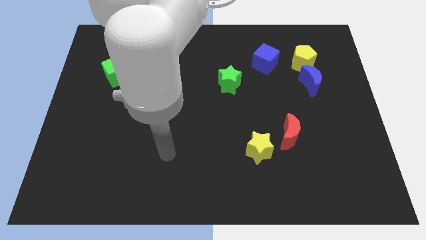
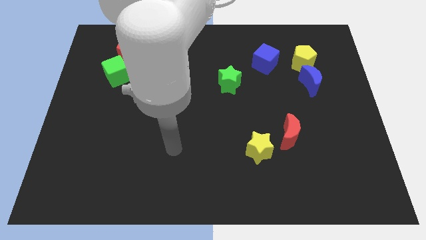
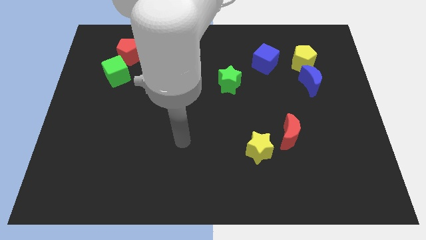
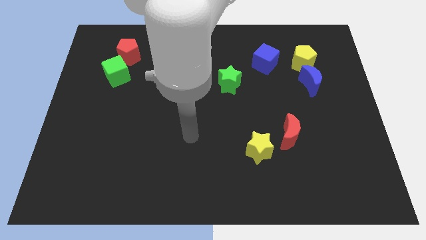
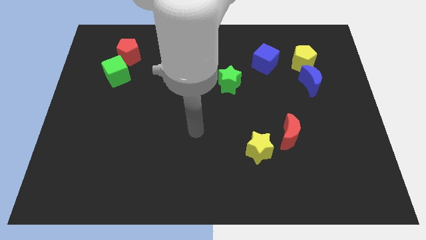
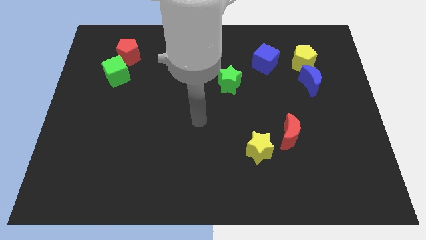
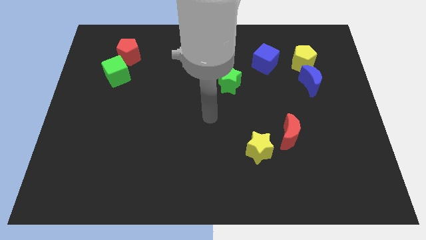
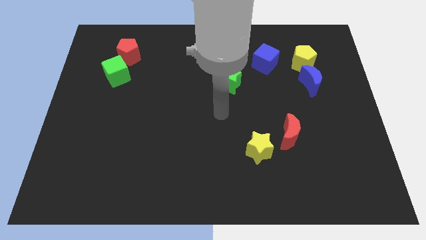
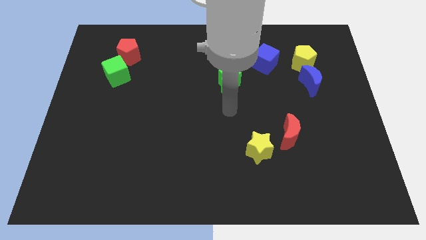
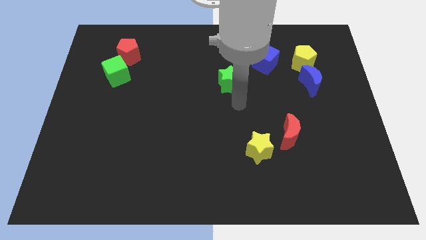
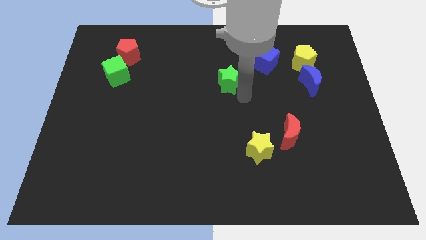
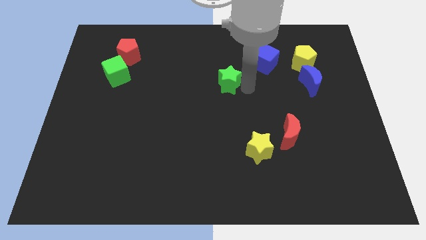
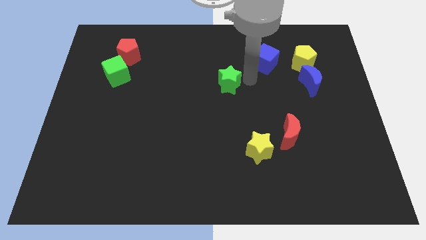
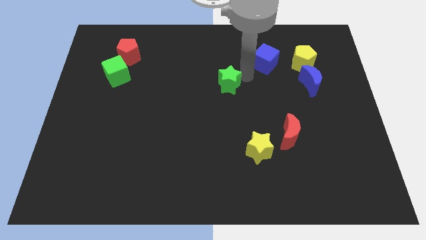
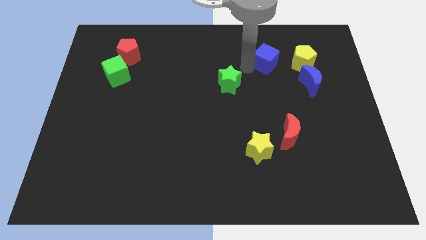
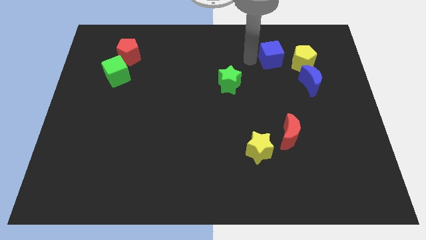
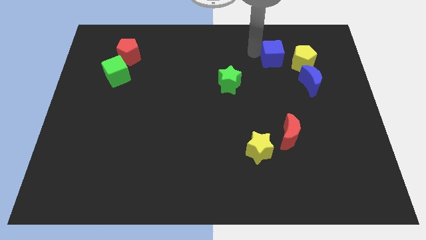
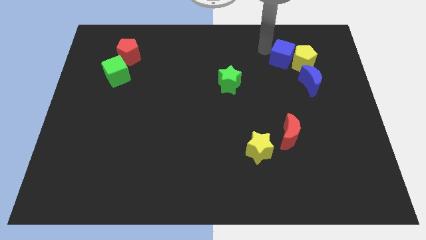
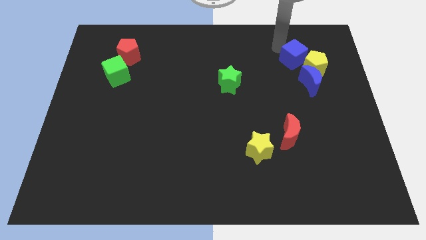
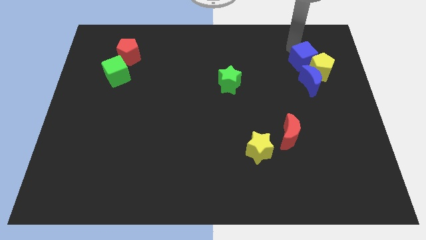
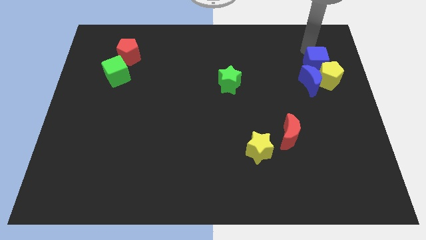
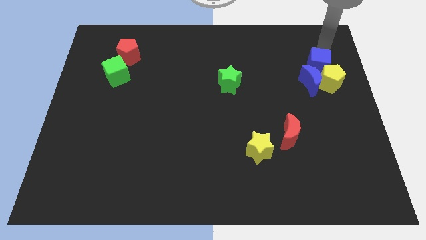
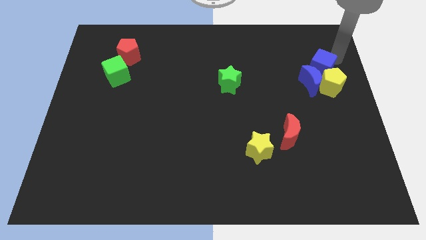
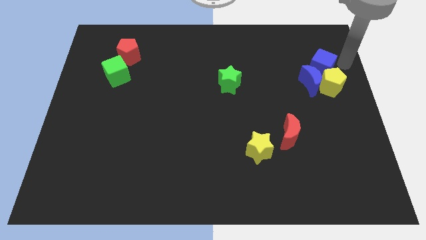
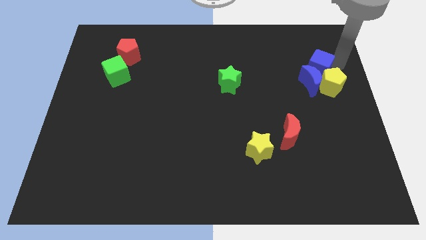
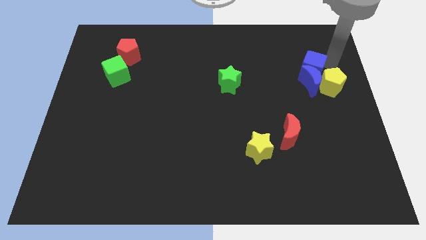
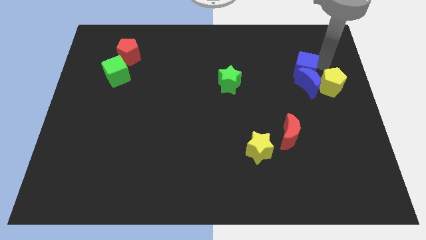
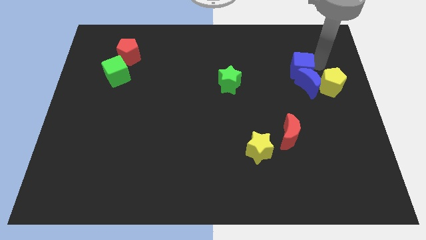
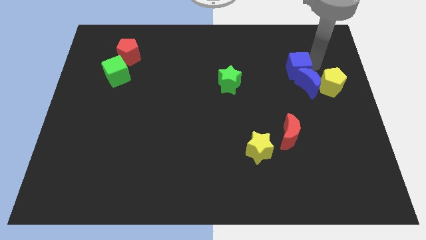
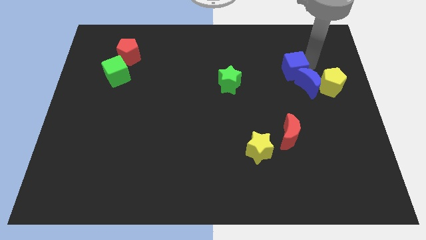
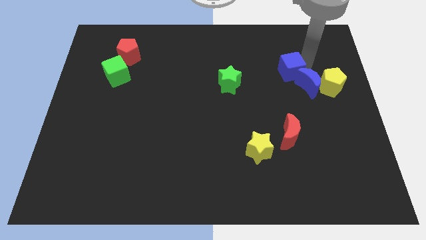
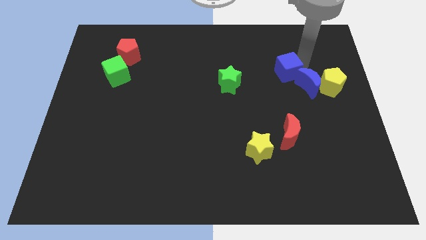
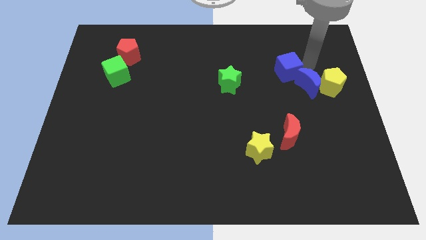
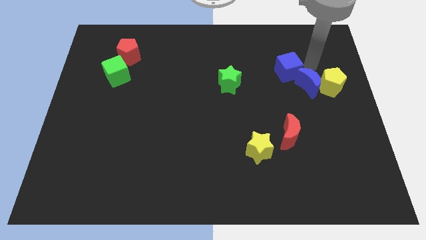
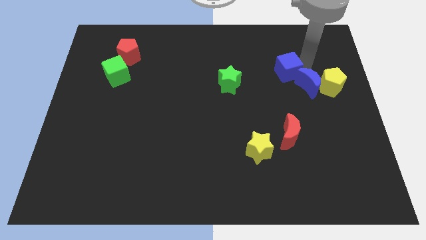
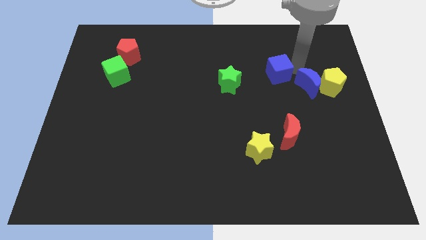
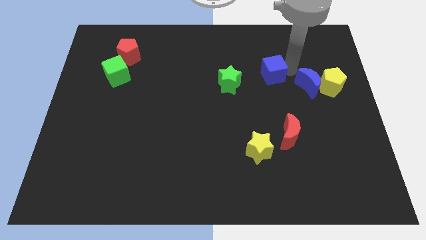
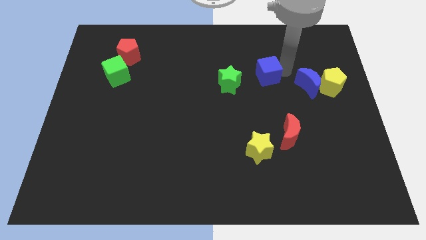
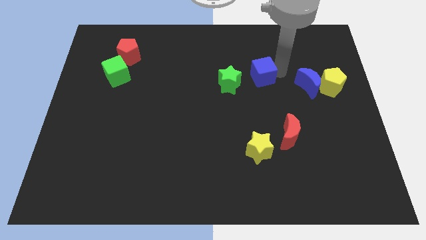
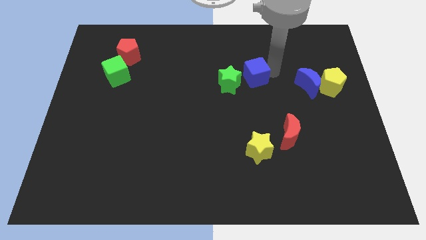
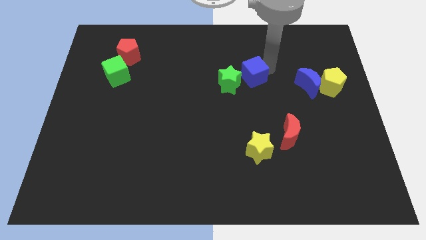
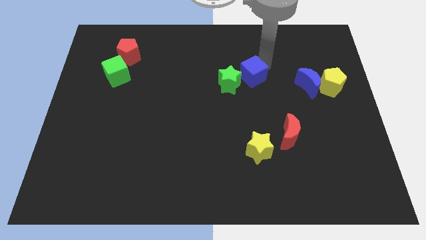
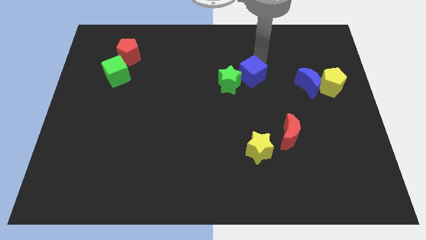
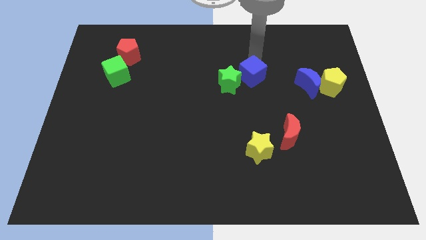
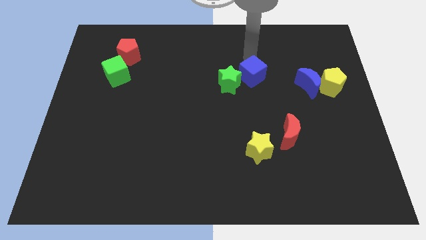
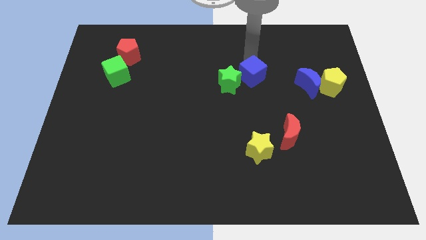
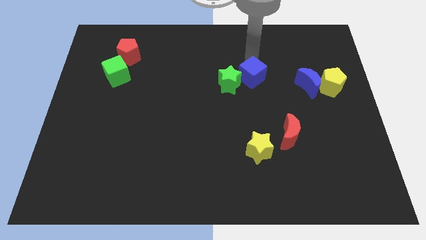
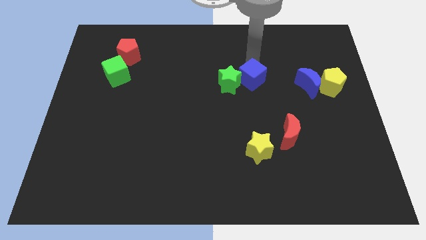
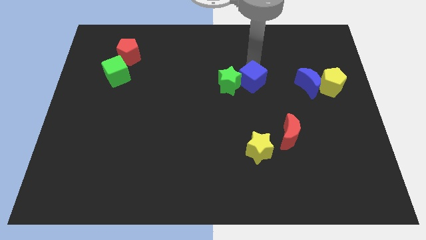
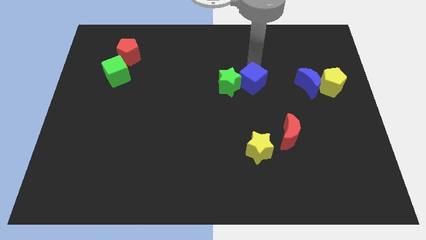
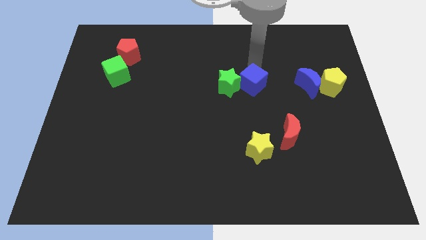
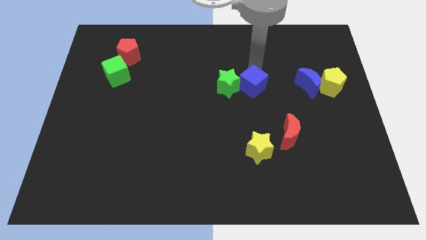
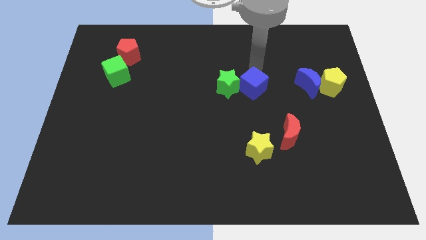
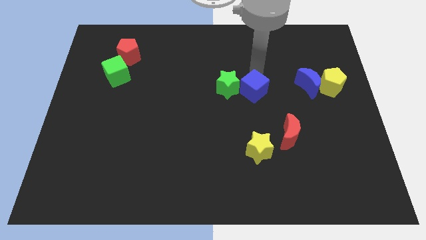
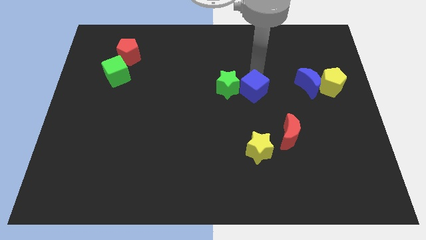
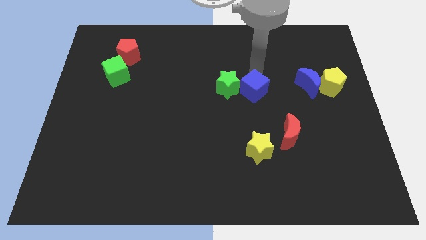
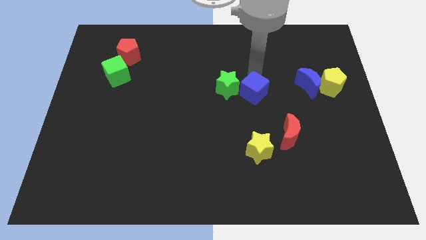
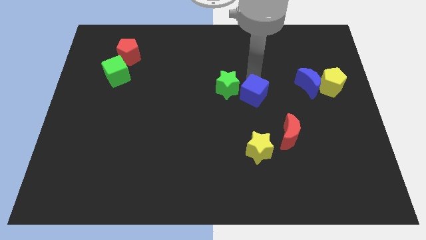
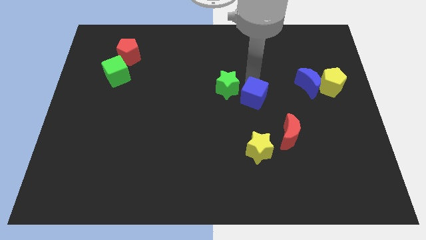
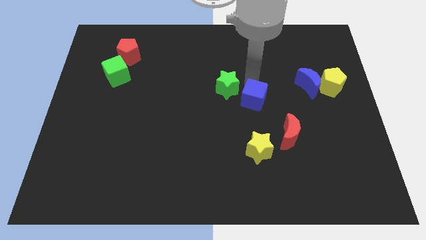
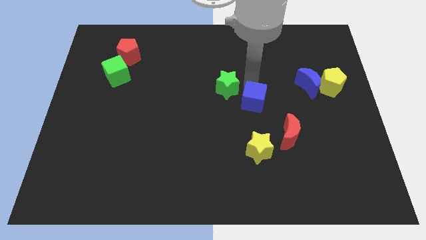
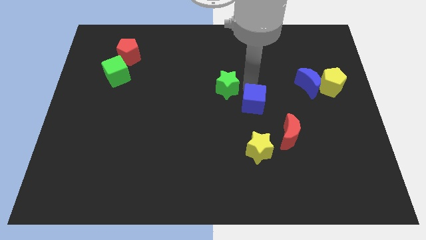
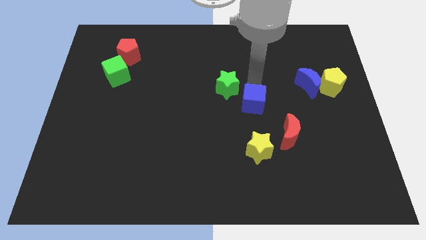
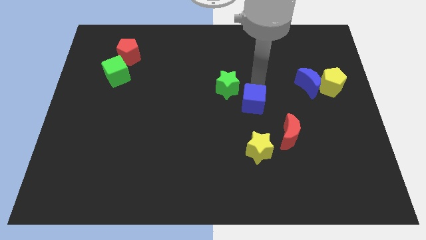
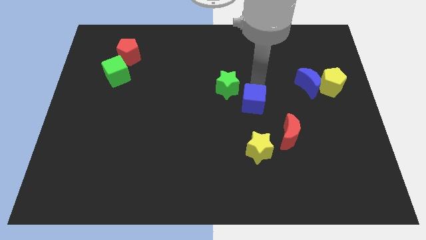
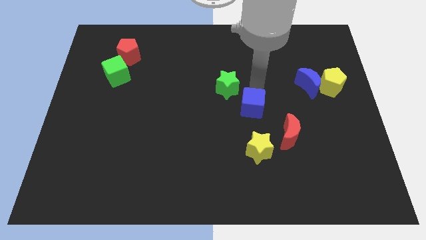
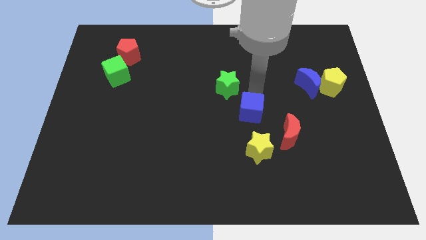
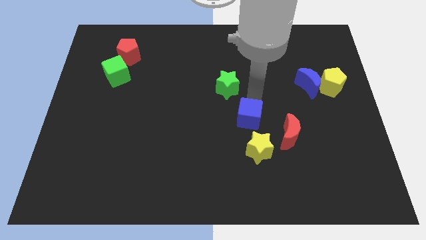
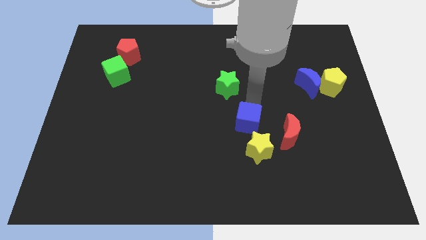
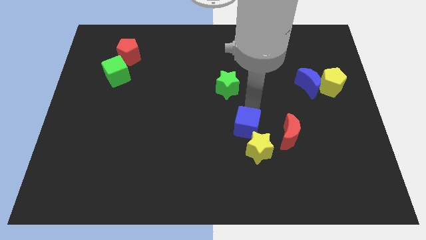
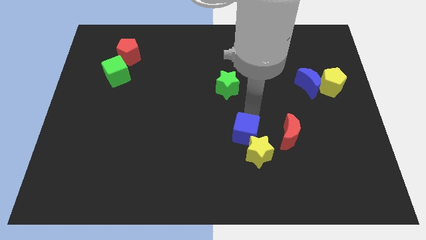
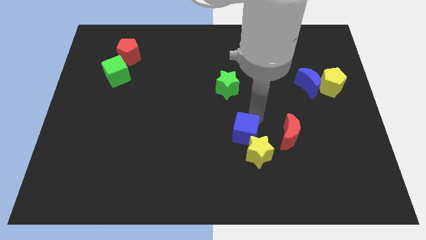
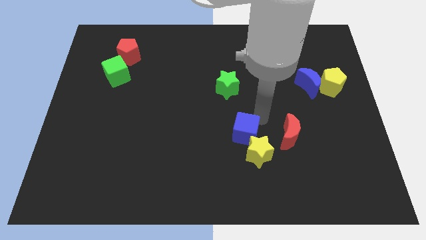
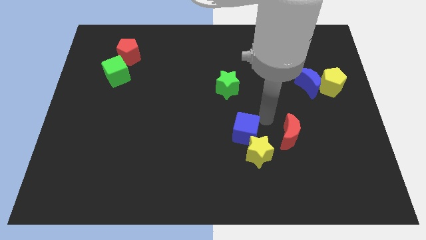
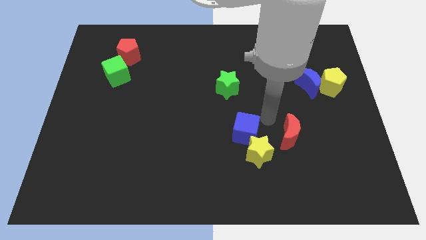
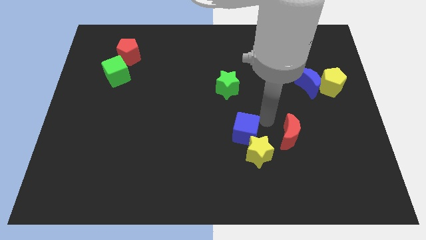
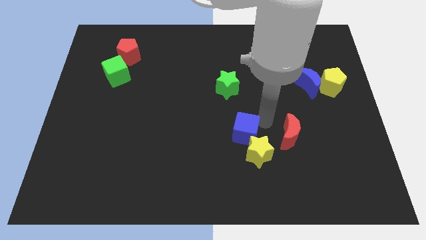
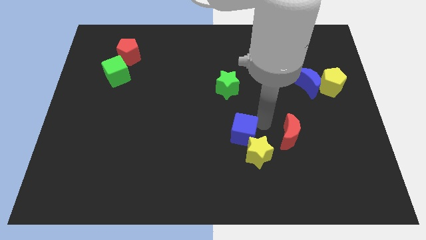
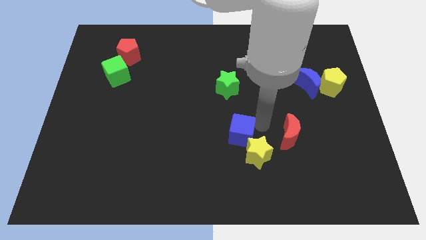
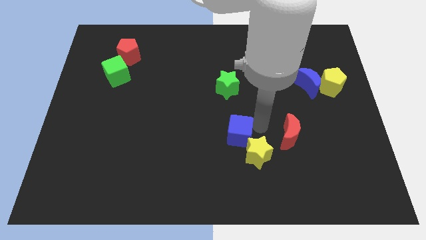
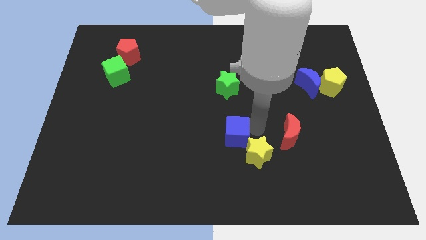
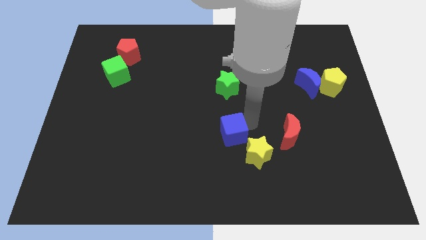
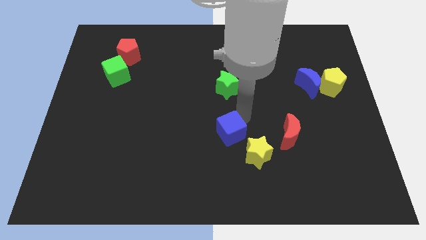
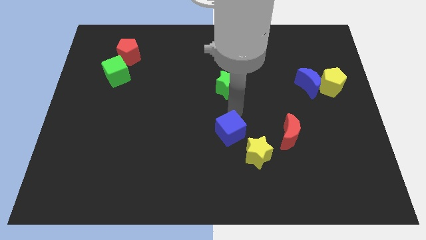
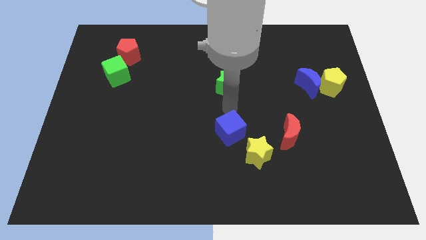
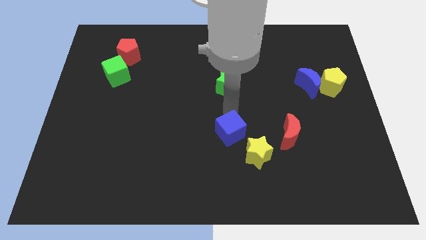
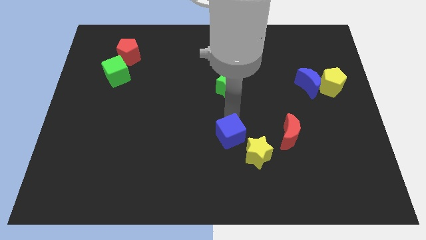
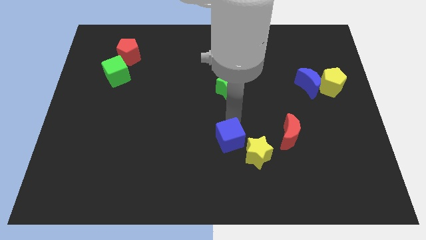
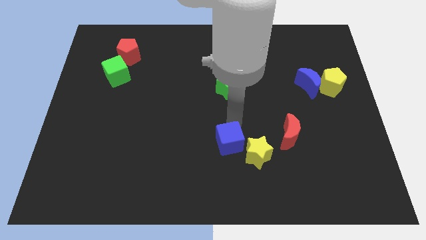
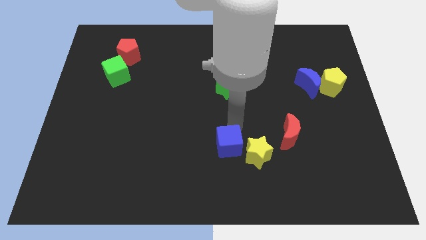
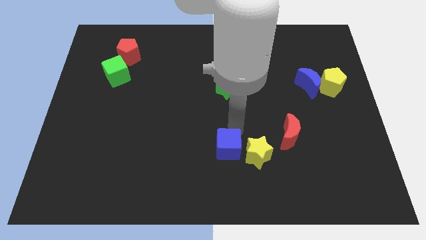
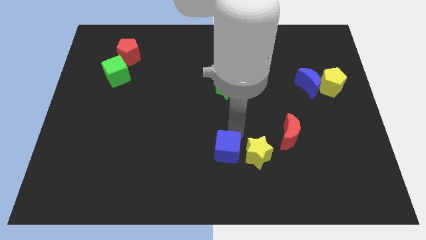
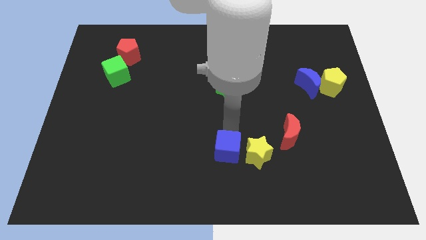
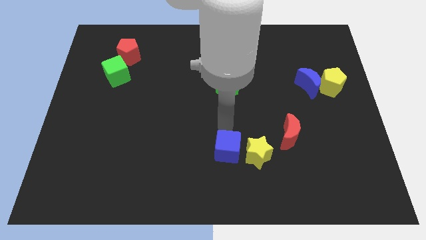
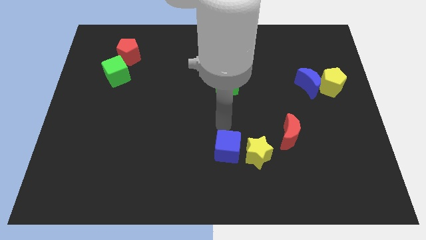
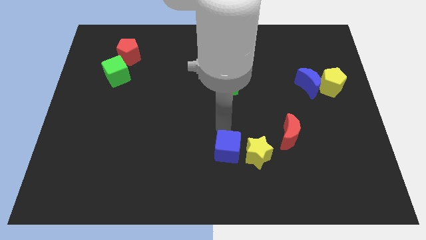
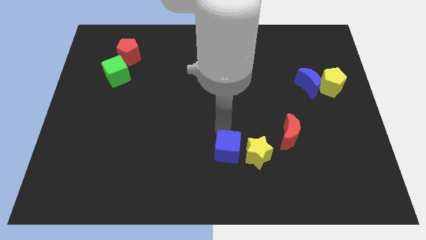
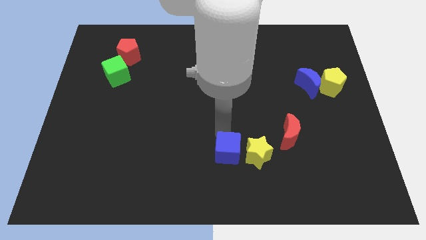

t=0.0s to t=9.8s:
put the blue cube diagonally down and to the left of the yellow star
